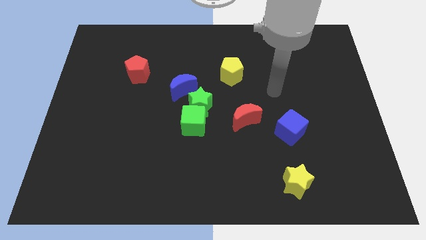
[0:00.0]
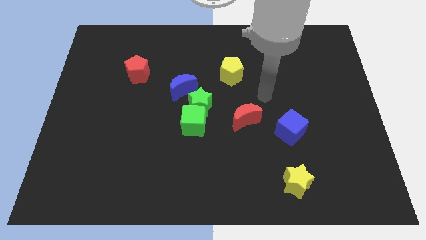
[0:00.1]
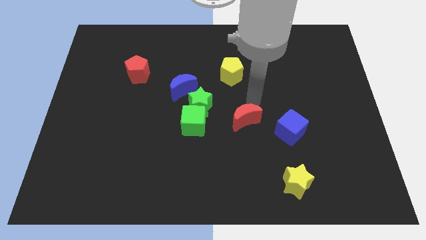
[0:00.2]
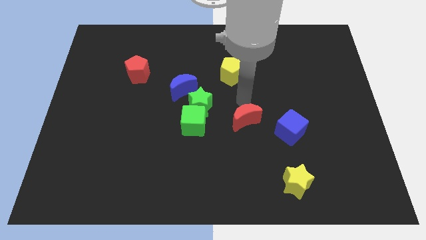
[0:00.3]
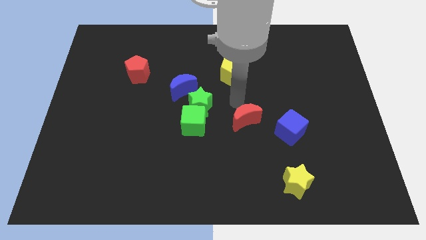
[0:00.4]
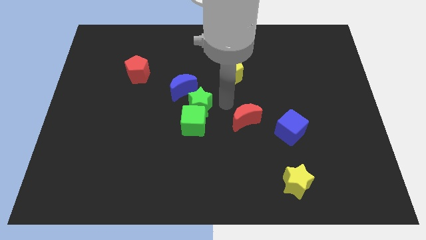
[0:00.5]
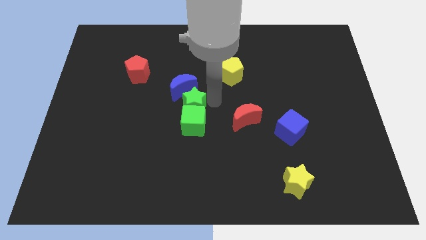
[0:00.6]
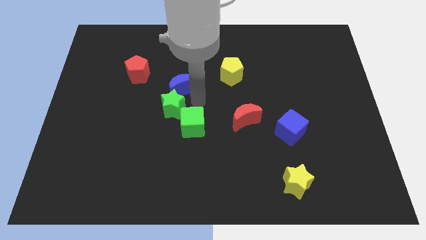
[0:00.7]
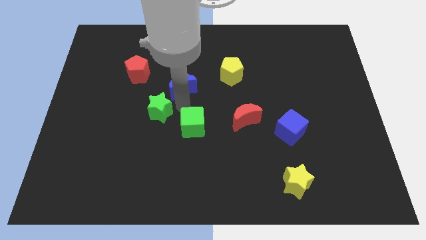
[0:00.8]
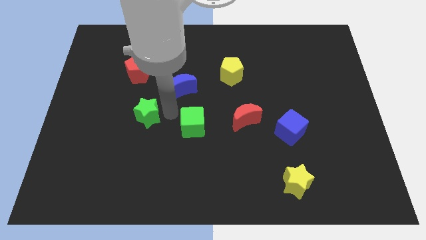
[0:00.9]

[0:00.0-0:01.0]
separate the green cube from the green star

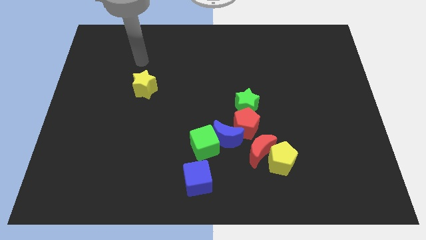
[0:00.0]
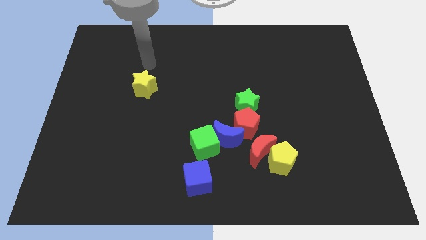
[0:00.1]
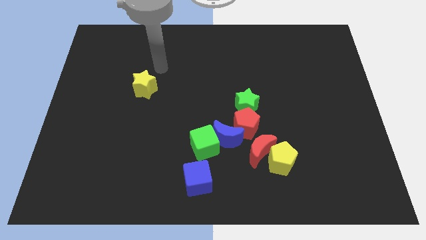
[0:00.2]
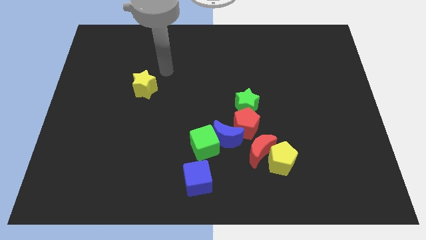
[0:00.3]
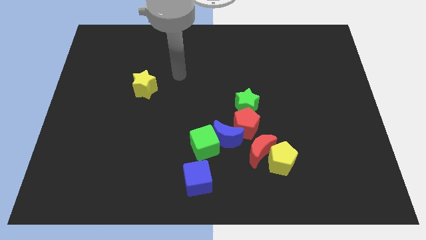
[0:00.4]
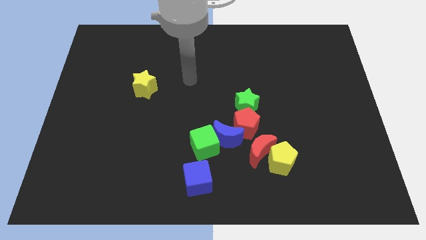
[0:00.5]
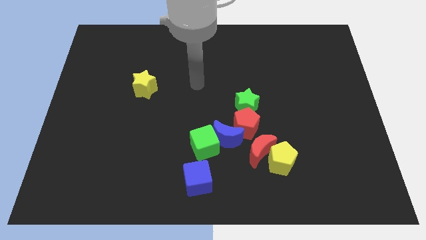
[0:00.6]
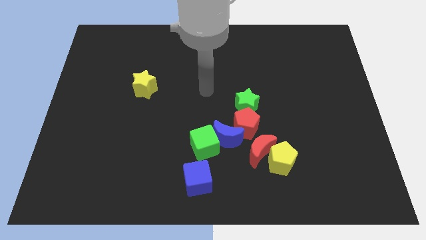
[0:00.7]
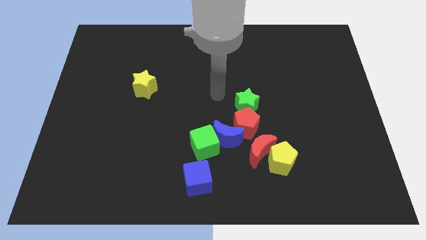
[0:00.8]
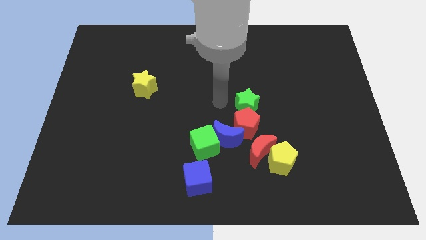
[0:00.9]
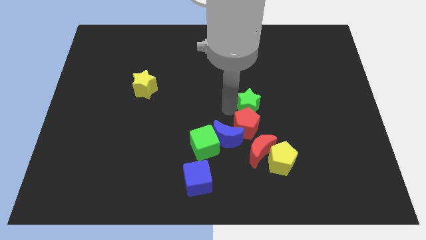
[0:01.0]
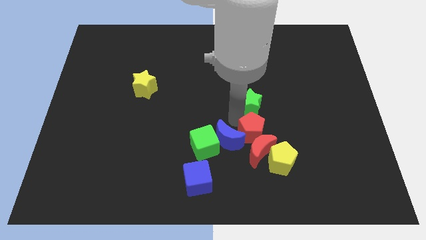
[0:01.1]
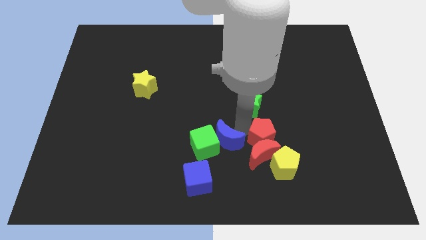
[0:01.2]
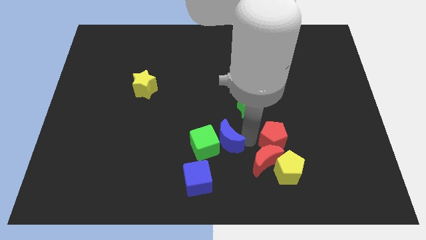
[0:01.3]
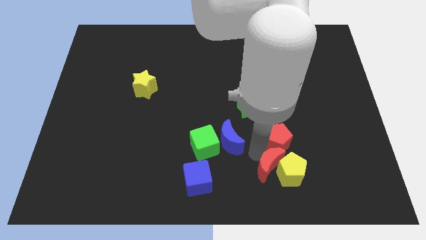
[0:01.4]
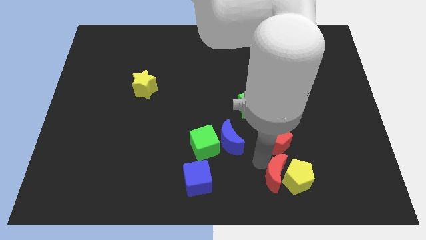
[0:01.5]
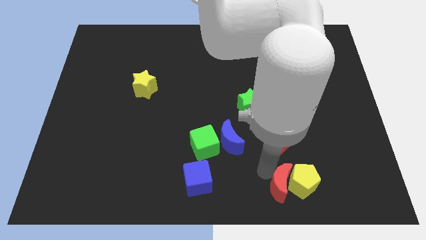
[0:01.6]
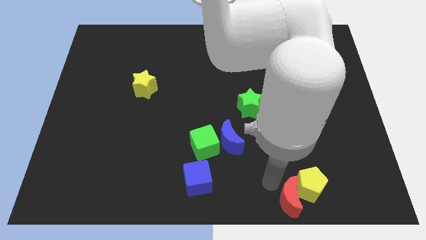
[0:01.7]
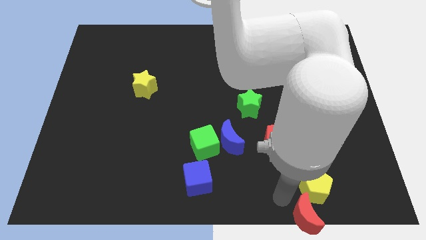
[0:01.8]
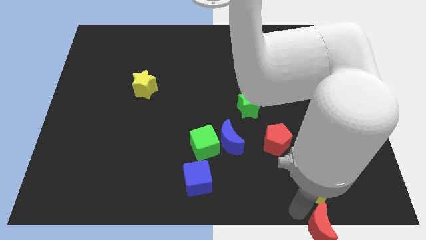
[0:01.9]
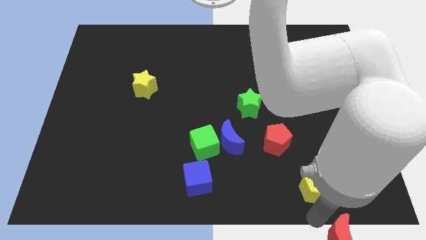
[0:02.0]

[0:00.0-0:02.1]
move the yellow pentagon away from the red moon

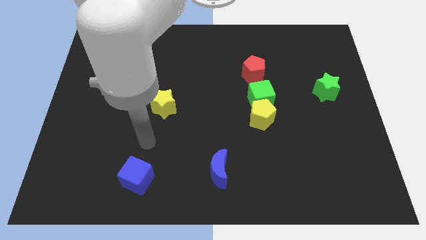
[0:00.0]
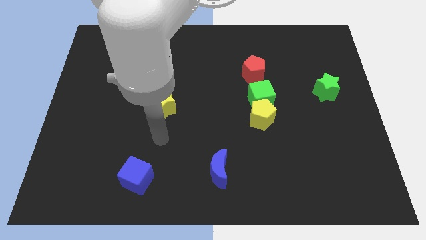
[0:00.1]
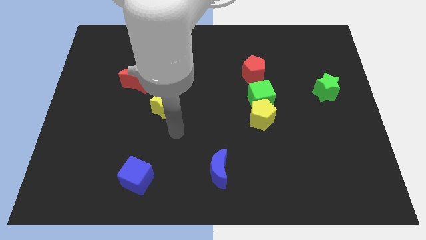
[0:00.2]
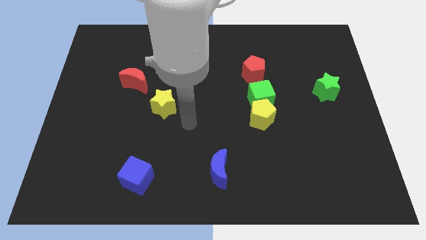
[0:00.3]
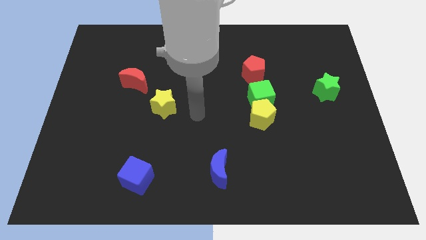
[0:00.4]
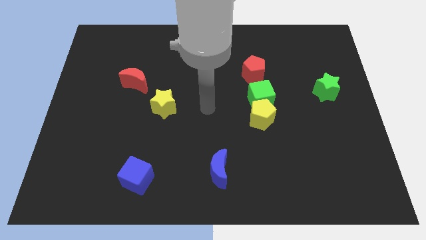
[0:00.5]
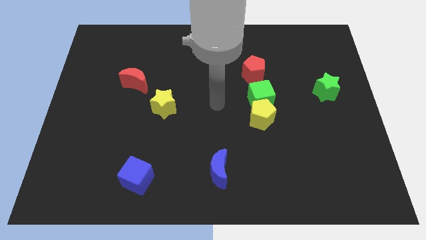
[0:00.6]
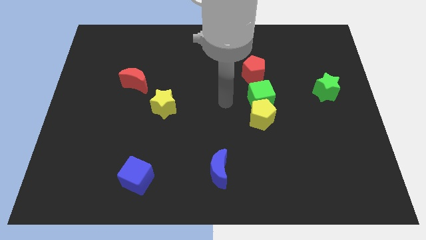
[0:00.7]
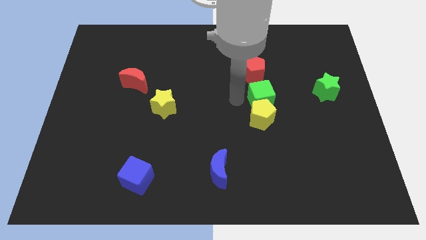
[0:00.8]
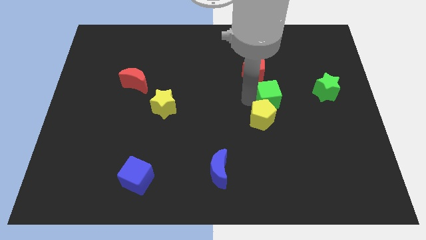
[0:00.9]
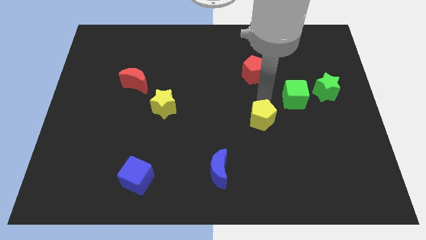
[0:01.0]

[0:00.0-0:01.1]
move the yellow pentagon away from the green cube

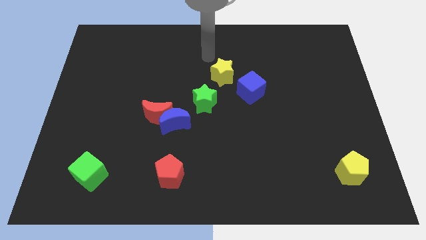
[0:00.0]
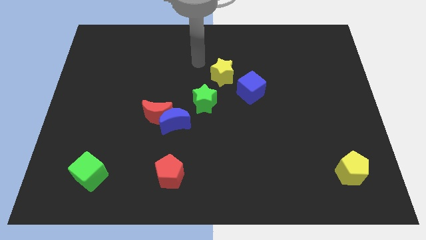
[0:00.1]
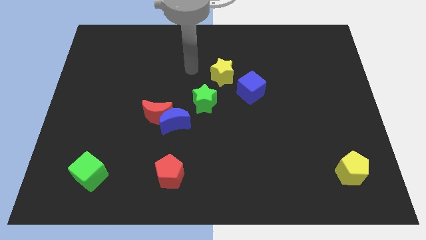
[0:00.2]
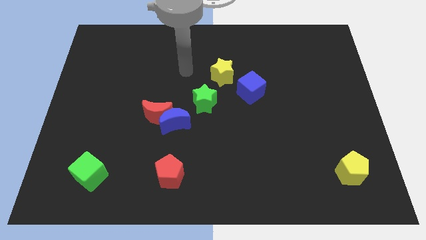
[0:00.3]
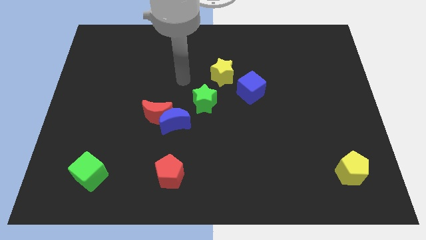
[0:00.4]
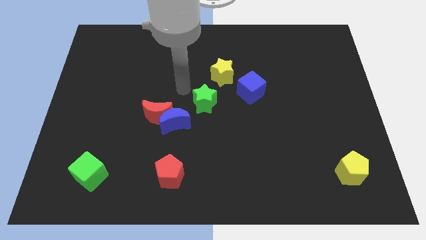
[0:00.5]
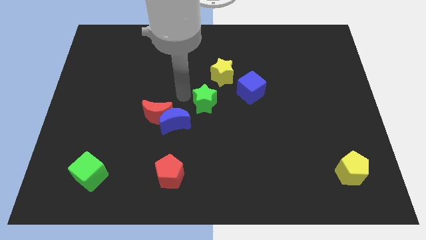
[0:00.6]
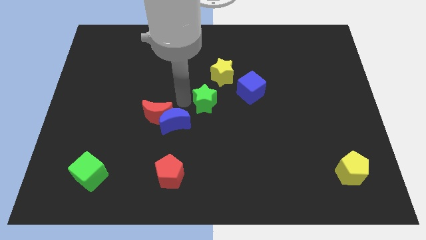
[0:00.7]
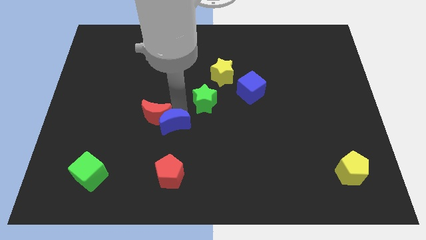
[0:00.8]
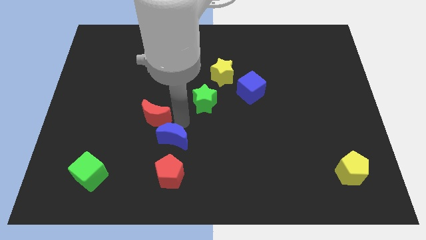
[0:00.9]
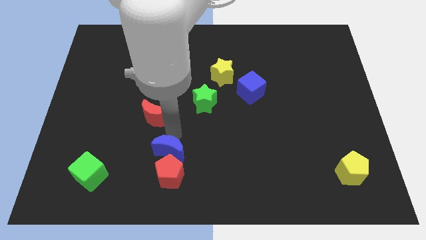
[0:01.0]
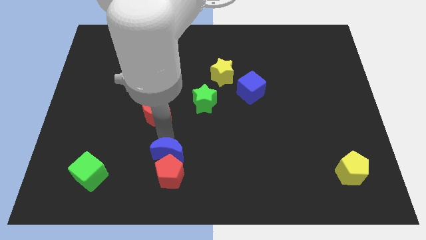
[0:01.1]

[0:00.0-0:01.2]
pull the red moon apart from the blue moon

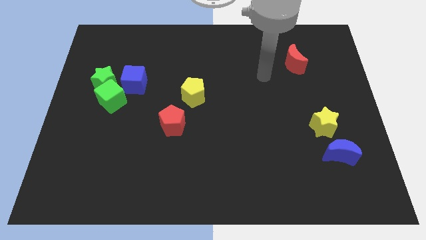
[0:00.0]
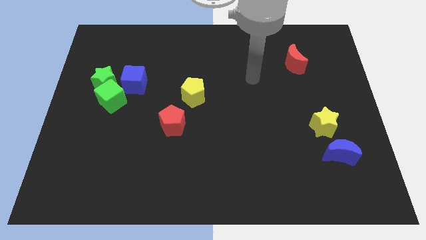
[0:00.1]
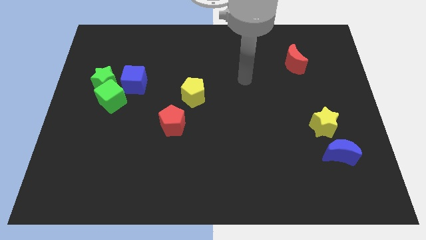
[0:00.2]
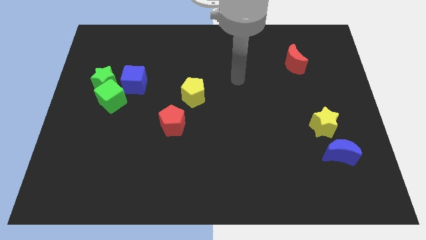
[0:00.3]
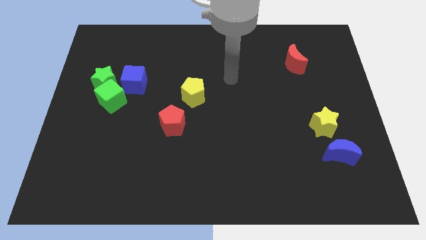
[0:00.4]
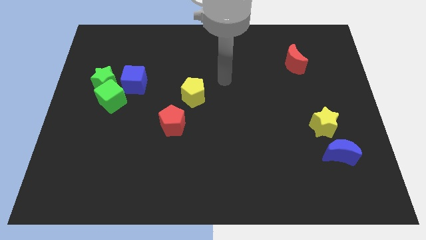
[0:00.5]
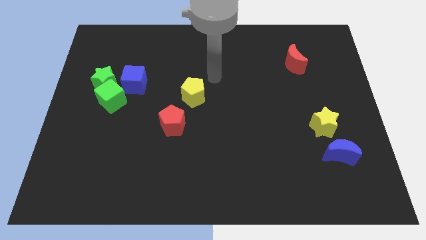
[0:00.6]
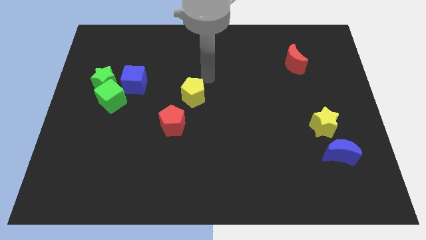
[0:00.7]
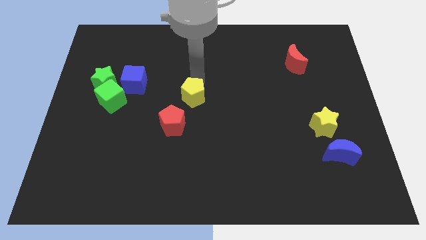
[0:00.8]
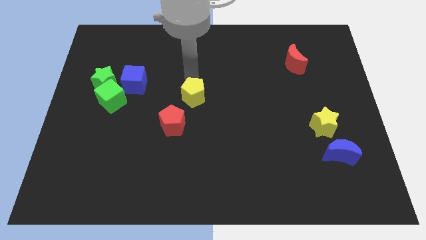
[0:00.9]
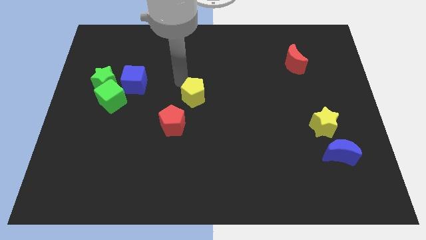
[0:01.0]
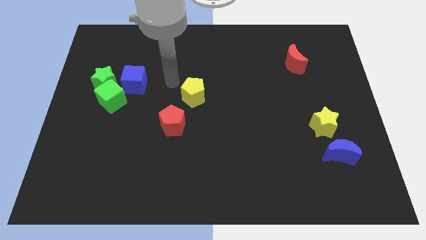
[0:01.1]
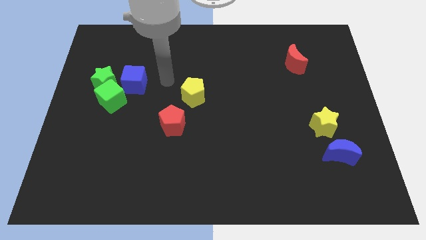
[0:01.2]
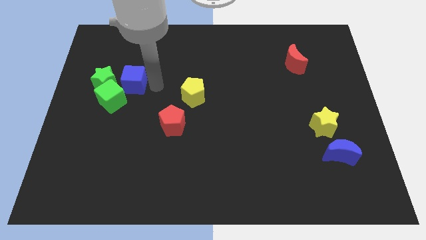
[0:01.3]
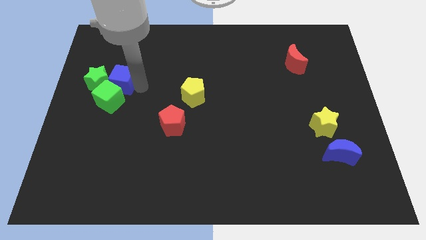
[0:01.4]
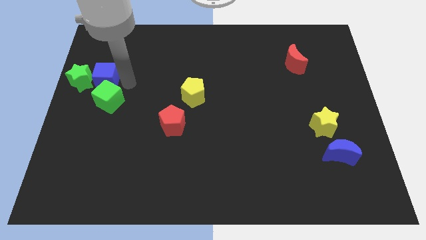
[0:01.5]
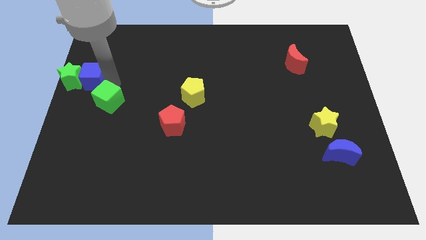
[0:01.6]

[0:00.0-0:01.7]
move the green cube away from the green star and blue cube

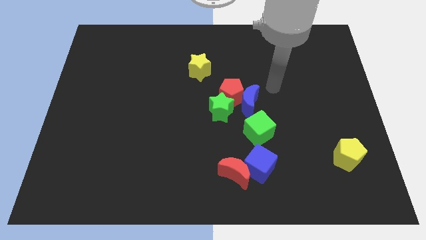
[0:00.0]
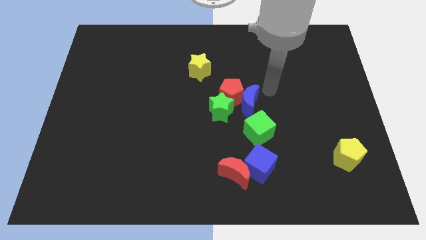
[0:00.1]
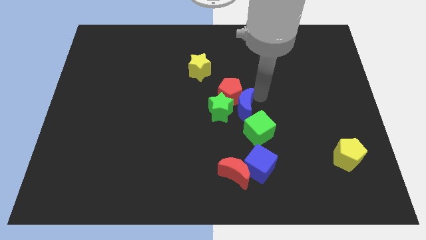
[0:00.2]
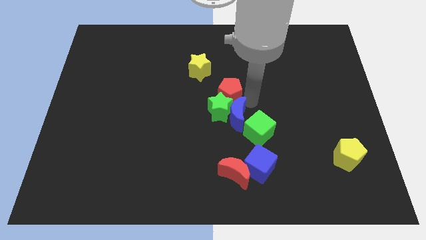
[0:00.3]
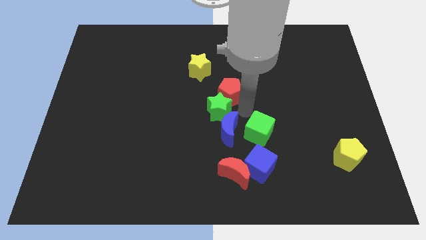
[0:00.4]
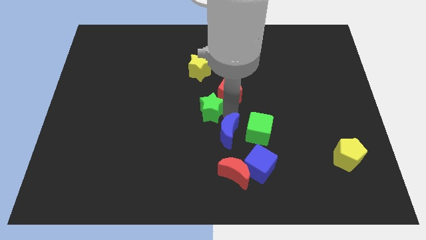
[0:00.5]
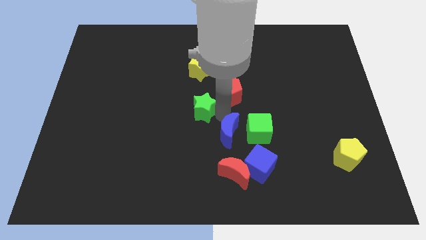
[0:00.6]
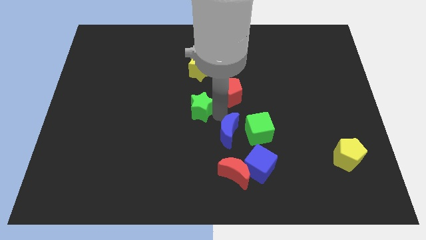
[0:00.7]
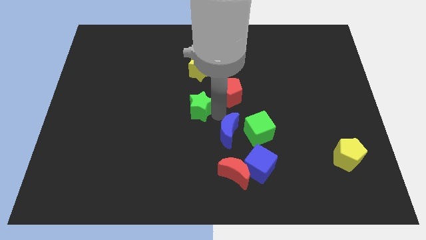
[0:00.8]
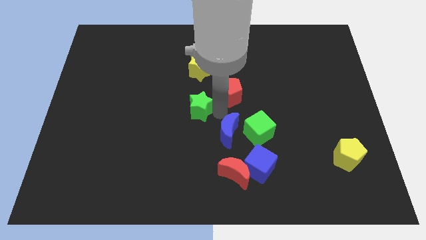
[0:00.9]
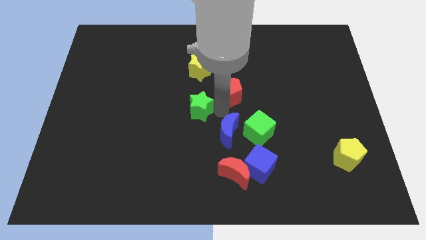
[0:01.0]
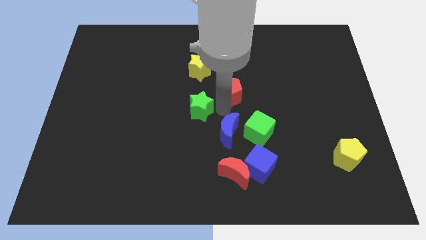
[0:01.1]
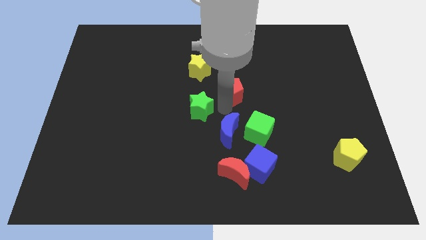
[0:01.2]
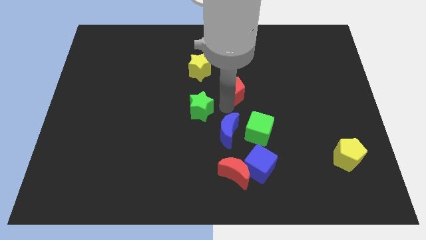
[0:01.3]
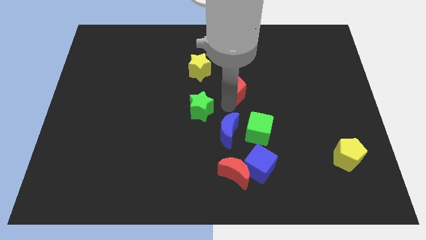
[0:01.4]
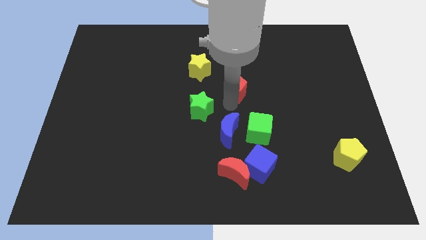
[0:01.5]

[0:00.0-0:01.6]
pull the red pentagon apart from the blue moon and green star

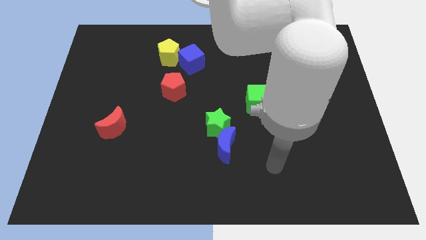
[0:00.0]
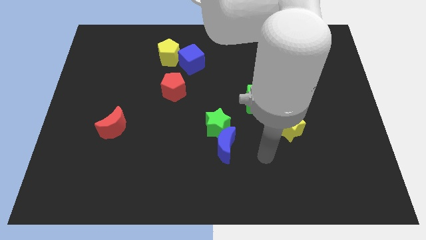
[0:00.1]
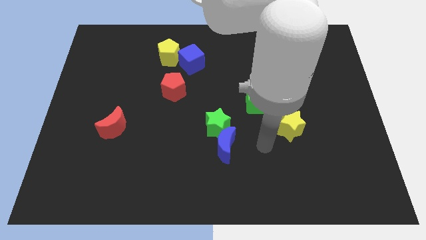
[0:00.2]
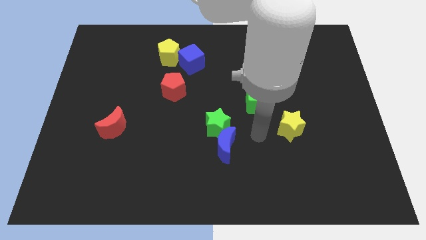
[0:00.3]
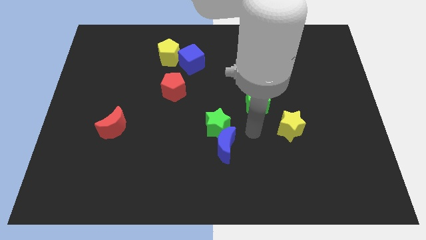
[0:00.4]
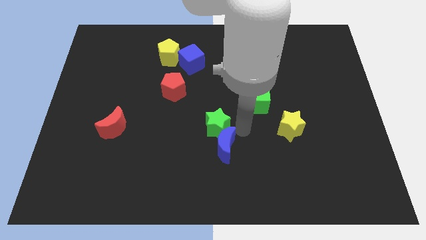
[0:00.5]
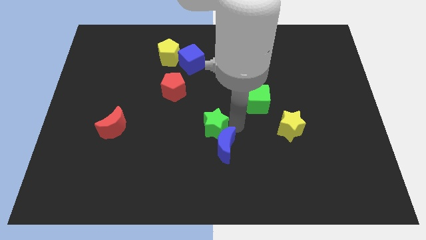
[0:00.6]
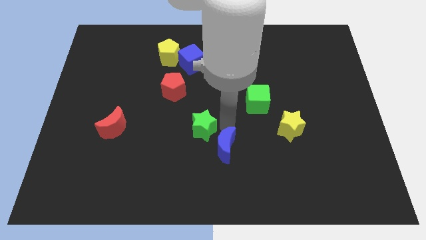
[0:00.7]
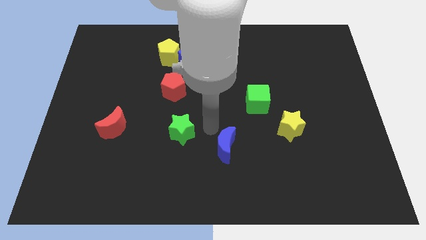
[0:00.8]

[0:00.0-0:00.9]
pull the blue moon apart from the green star
